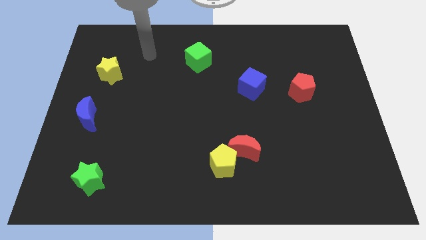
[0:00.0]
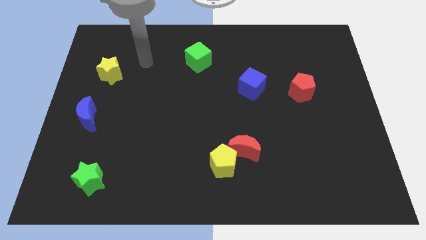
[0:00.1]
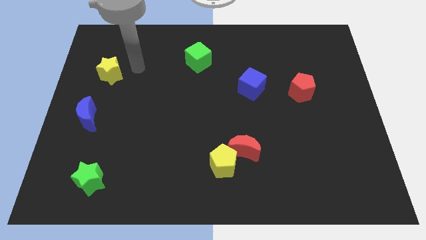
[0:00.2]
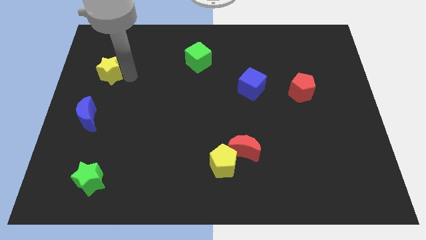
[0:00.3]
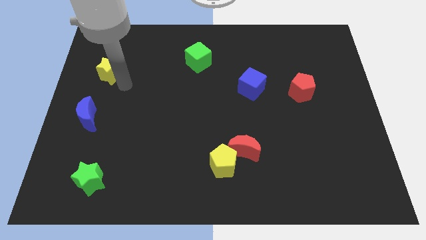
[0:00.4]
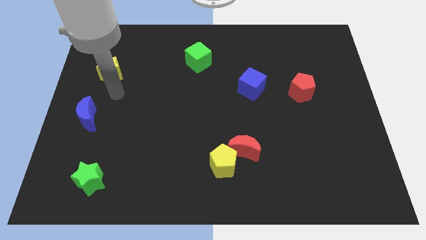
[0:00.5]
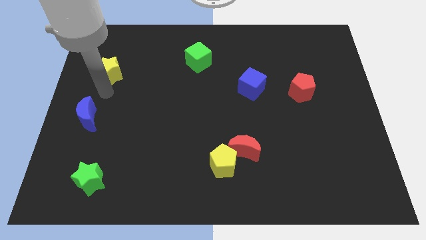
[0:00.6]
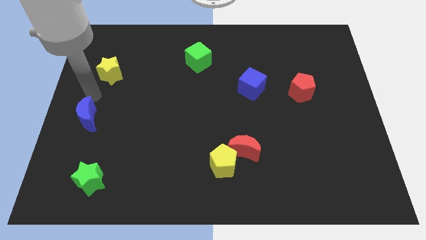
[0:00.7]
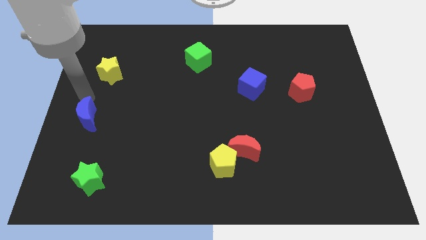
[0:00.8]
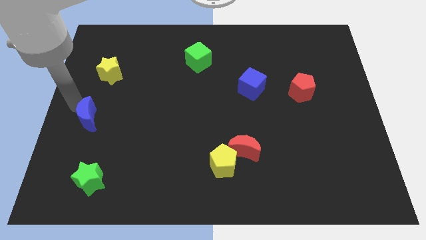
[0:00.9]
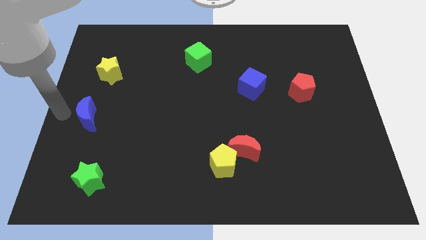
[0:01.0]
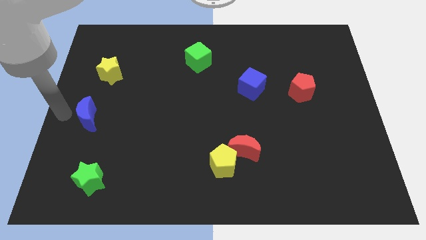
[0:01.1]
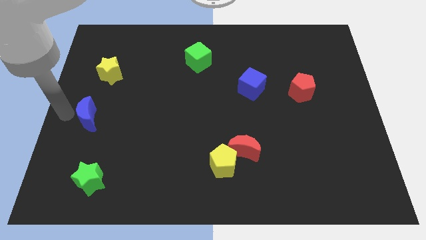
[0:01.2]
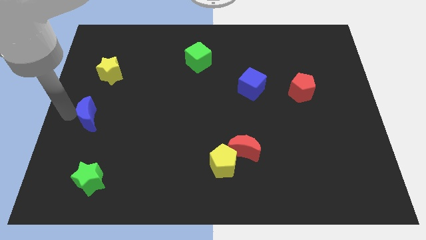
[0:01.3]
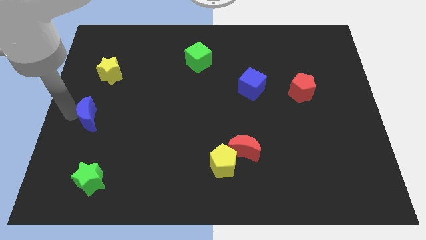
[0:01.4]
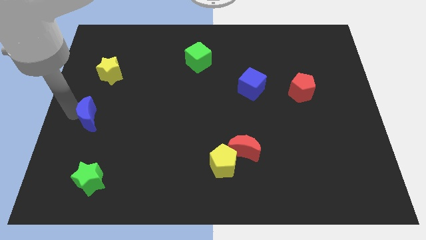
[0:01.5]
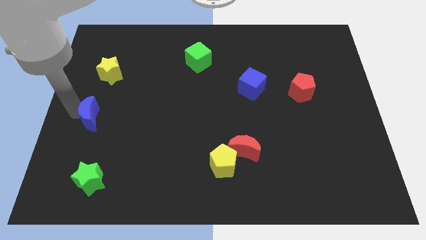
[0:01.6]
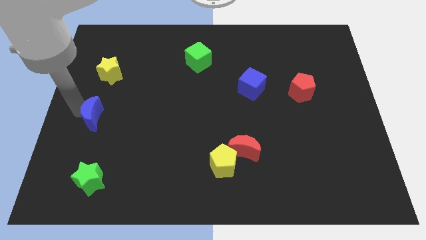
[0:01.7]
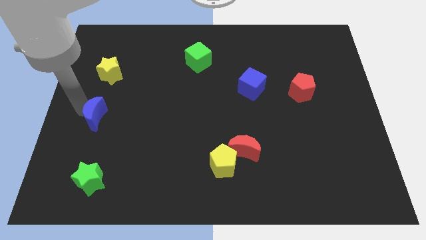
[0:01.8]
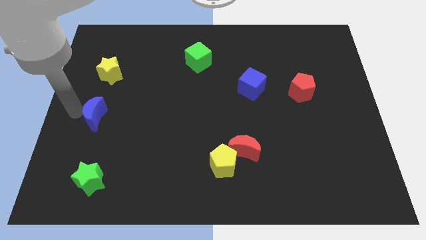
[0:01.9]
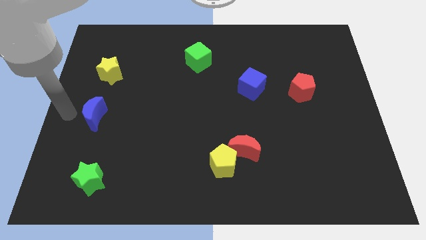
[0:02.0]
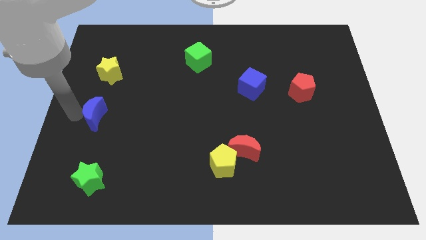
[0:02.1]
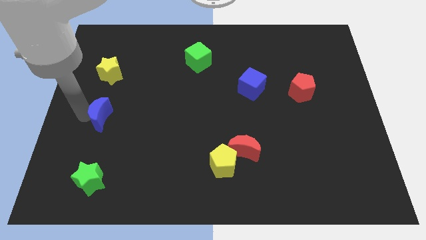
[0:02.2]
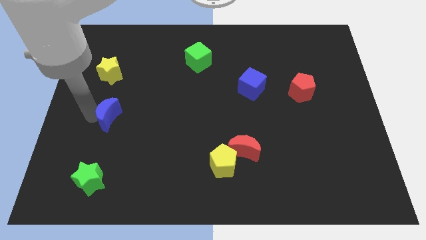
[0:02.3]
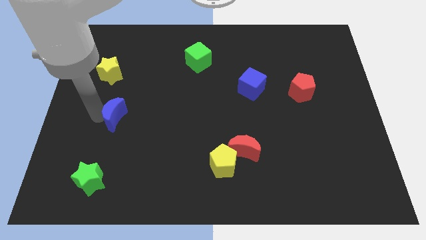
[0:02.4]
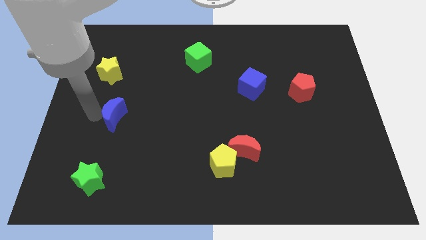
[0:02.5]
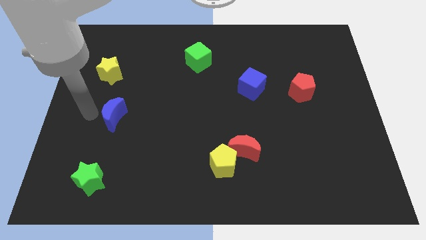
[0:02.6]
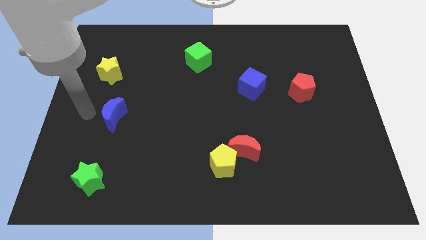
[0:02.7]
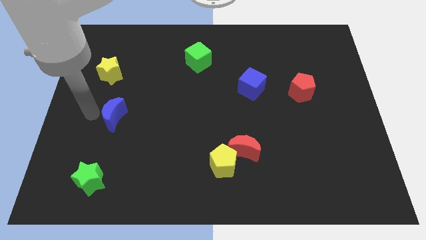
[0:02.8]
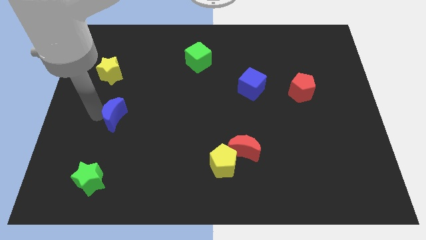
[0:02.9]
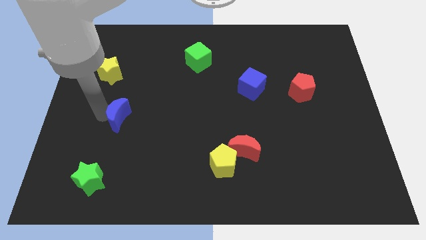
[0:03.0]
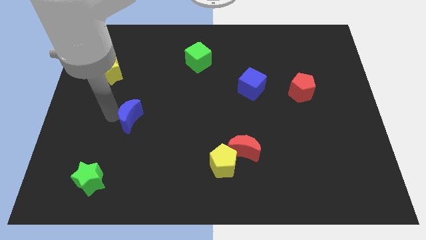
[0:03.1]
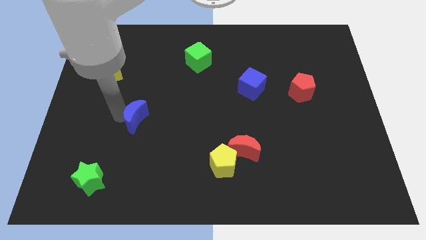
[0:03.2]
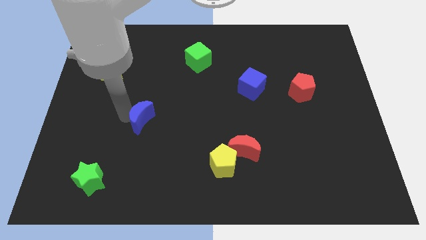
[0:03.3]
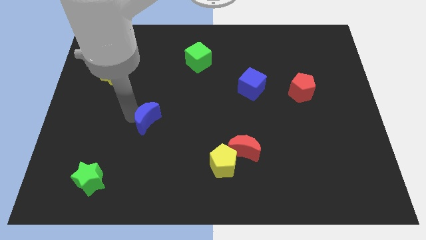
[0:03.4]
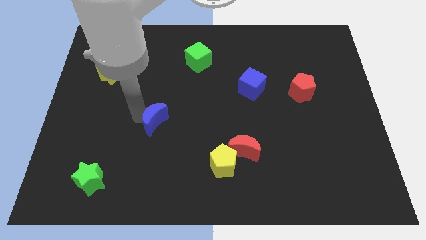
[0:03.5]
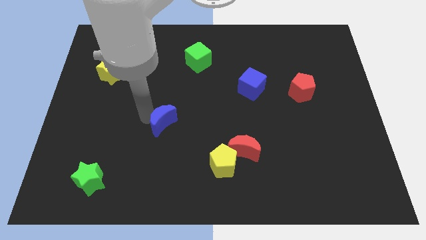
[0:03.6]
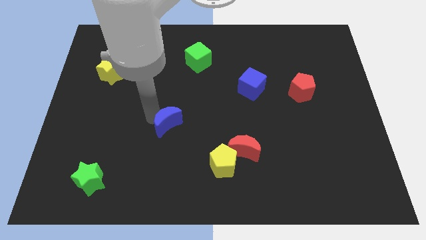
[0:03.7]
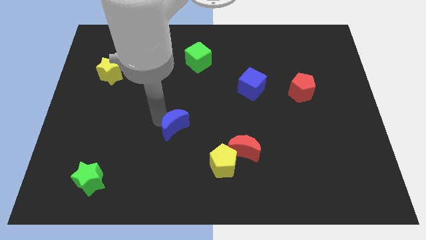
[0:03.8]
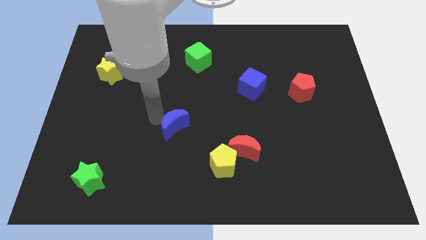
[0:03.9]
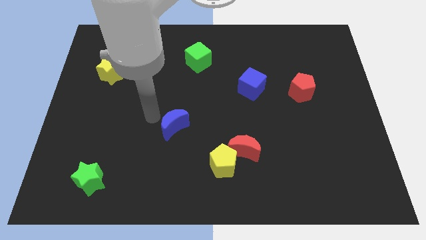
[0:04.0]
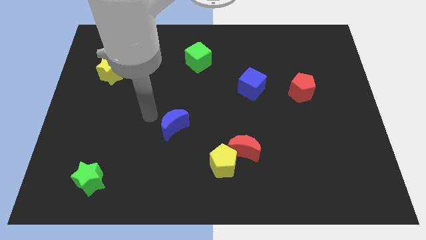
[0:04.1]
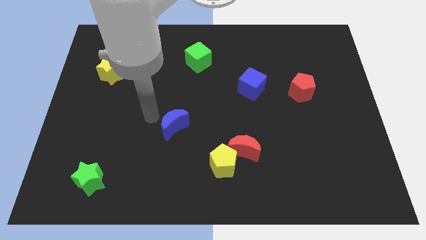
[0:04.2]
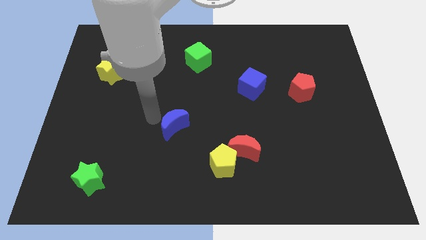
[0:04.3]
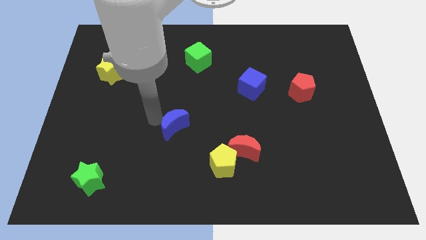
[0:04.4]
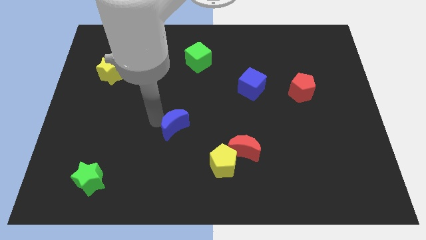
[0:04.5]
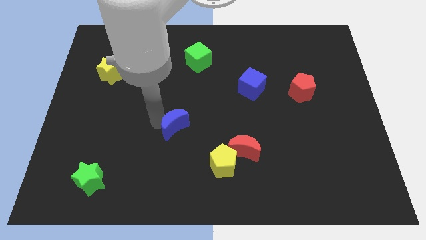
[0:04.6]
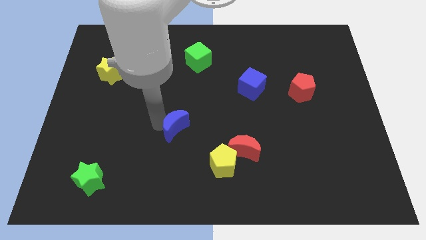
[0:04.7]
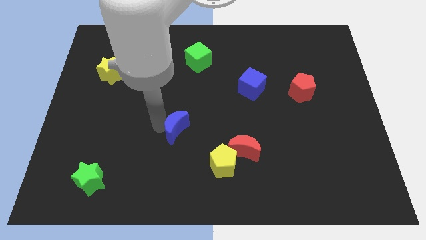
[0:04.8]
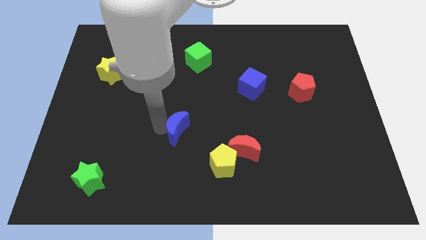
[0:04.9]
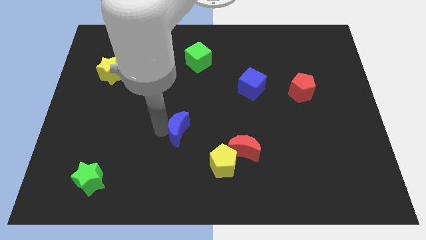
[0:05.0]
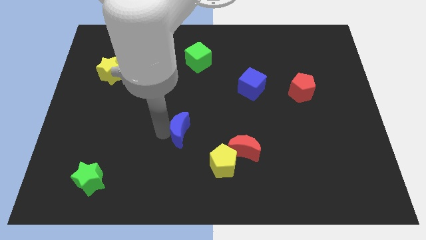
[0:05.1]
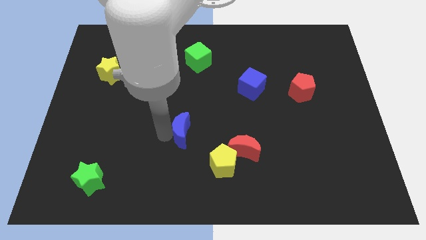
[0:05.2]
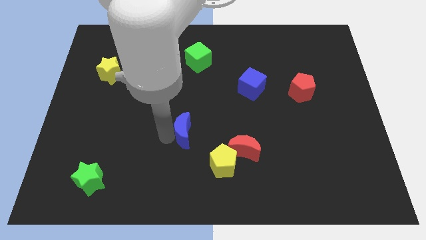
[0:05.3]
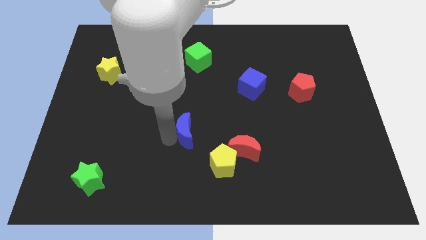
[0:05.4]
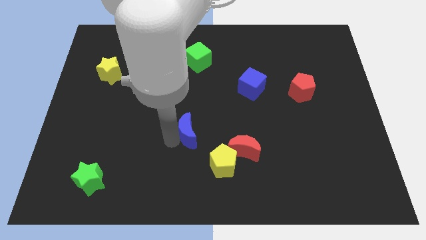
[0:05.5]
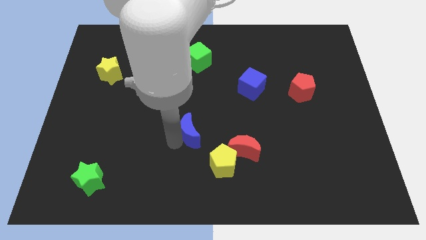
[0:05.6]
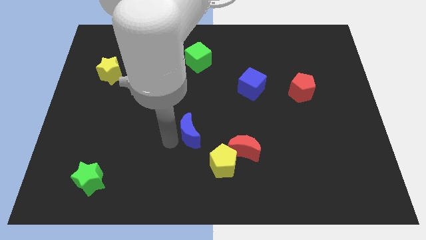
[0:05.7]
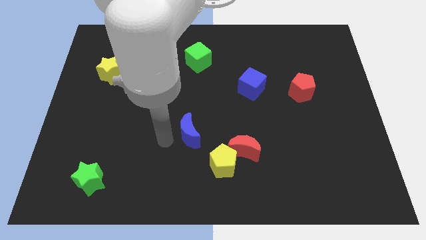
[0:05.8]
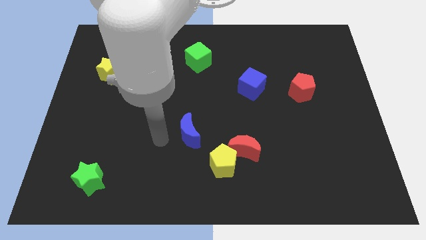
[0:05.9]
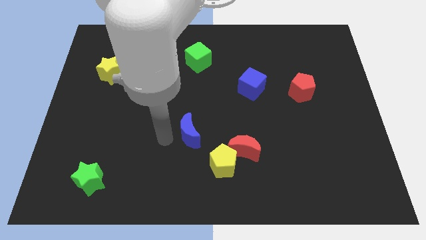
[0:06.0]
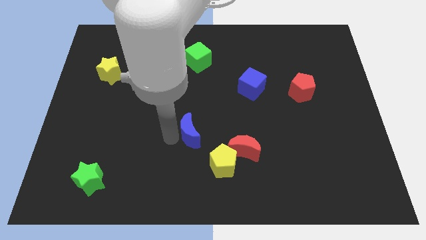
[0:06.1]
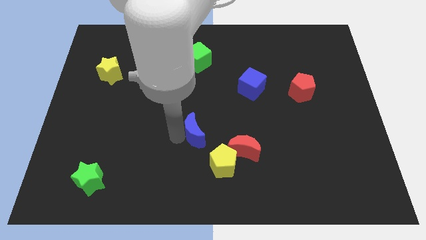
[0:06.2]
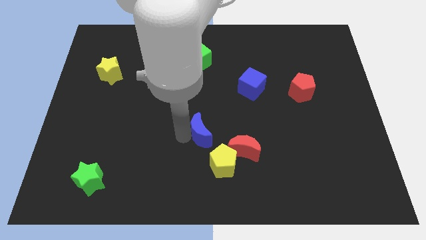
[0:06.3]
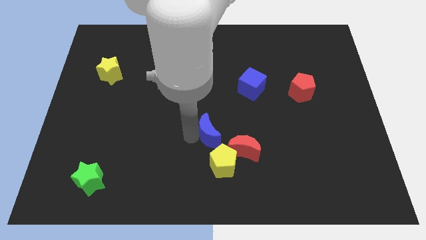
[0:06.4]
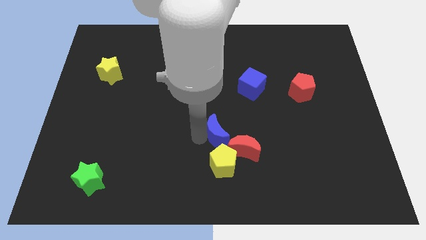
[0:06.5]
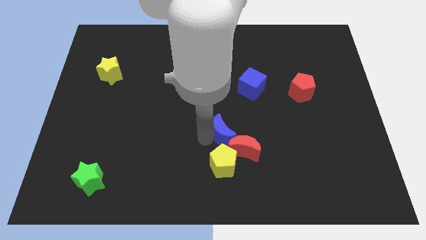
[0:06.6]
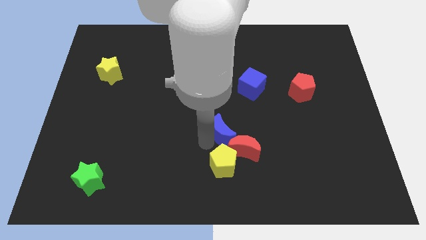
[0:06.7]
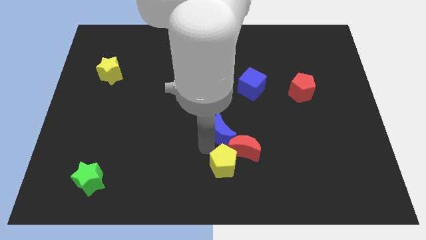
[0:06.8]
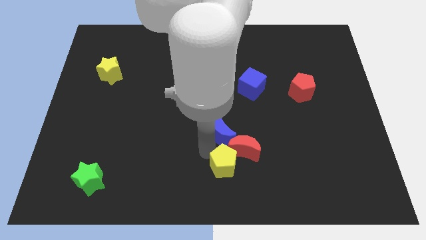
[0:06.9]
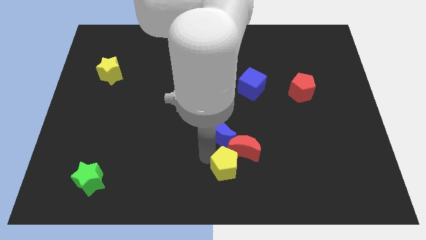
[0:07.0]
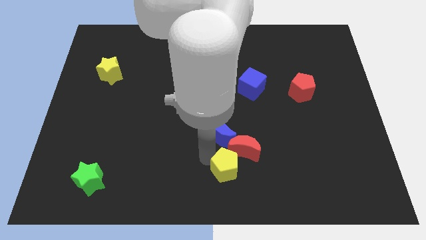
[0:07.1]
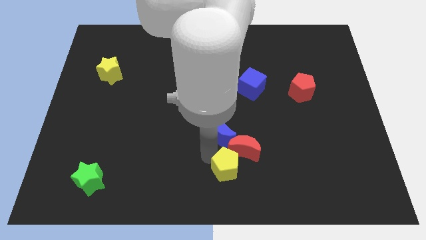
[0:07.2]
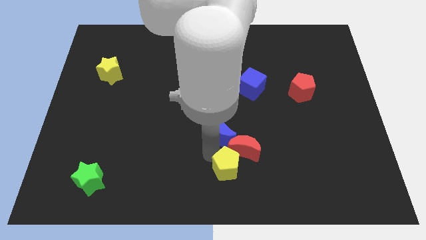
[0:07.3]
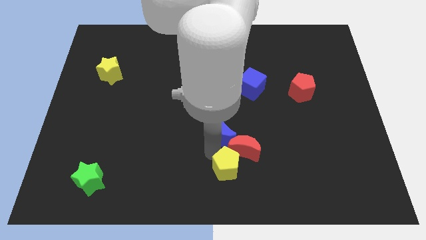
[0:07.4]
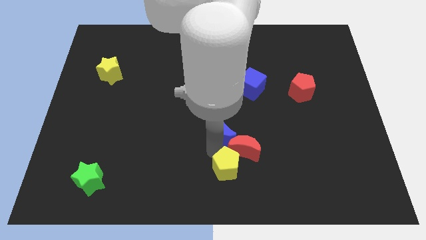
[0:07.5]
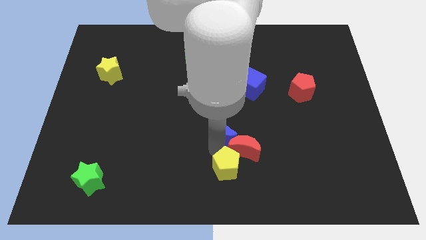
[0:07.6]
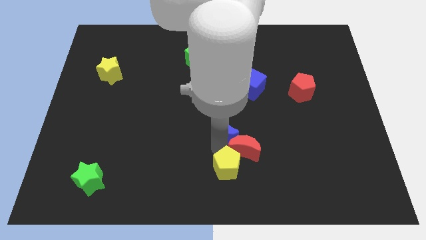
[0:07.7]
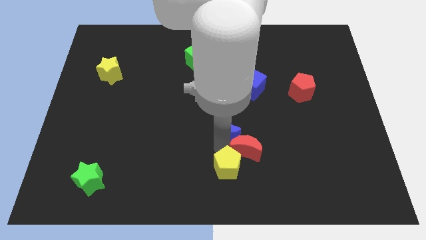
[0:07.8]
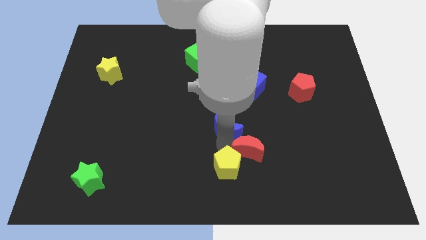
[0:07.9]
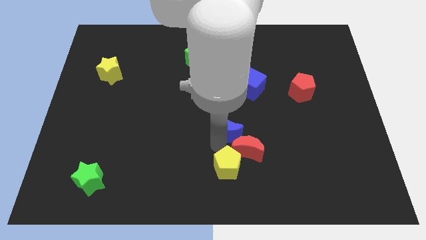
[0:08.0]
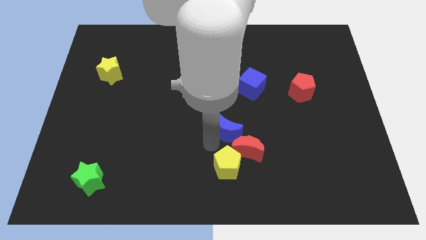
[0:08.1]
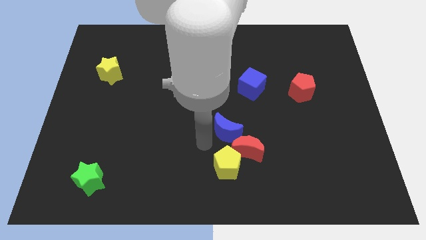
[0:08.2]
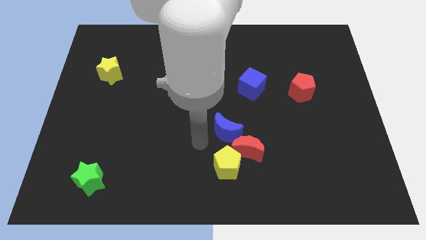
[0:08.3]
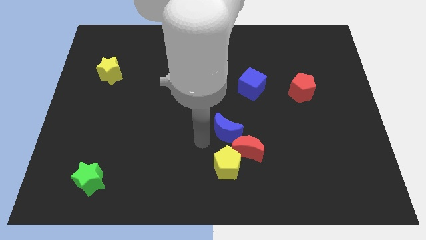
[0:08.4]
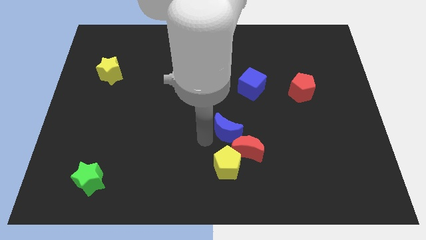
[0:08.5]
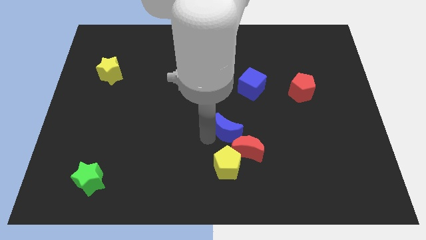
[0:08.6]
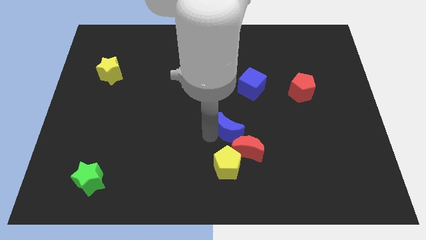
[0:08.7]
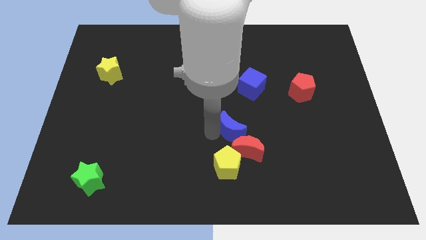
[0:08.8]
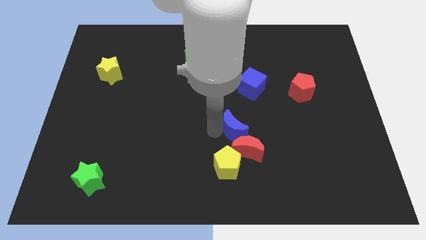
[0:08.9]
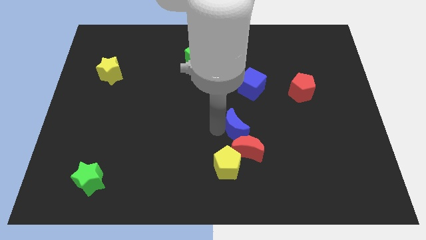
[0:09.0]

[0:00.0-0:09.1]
slide the blue moon below the blue cube
